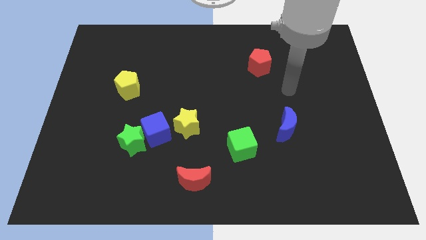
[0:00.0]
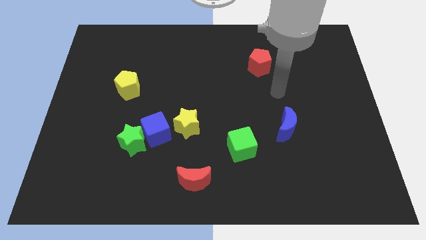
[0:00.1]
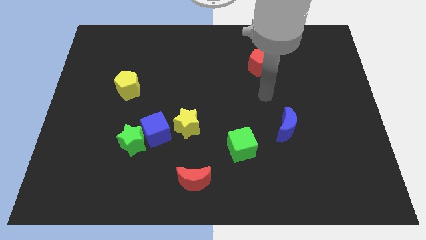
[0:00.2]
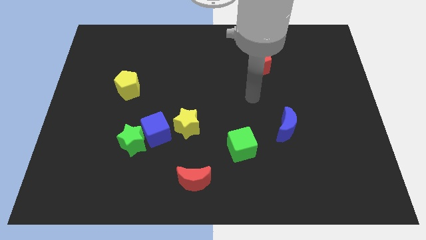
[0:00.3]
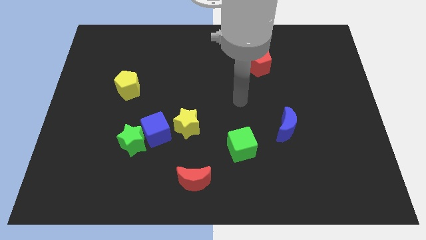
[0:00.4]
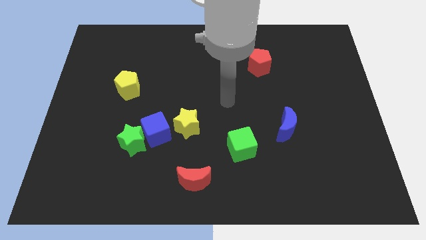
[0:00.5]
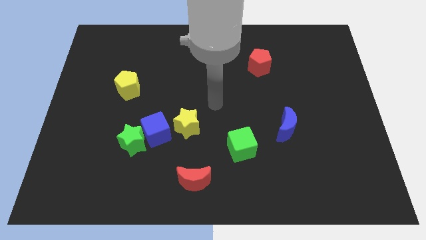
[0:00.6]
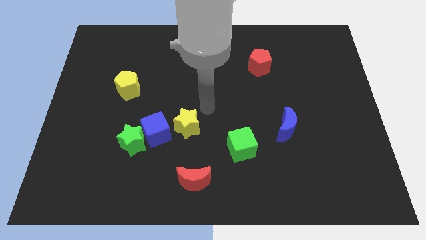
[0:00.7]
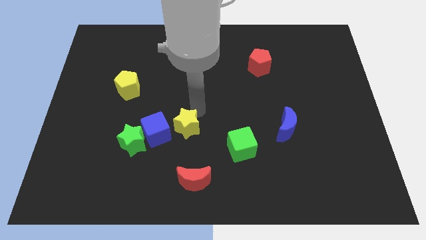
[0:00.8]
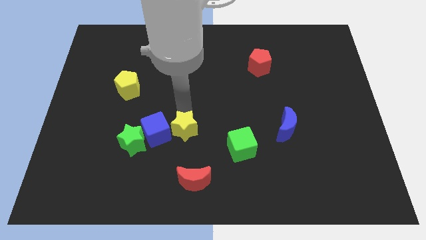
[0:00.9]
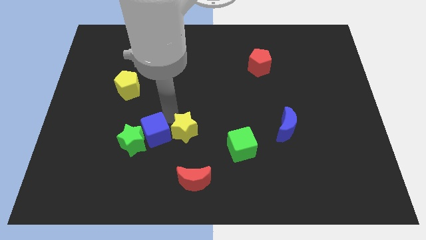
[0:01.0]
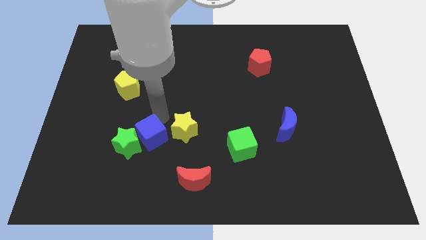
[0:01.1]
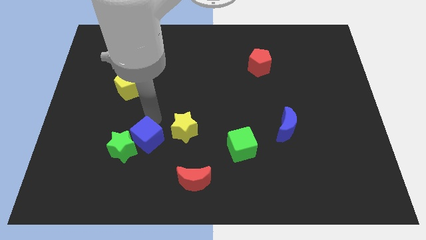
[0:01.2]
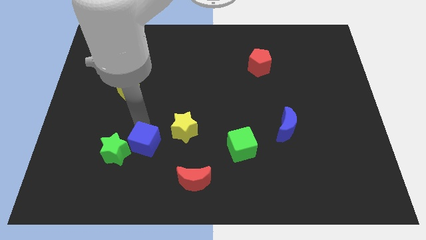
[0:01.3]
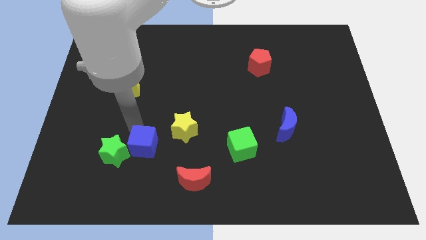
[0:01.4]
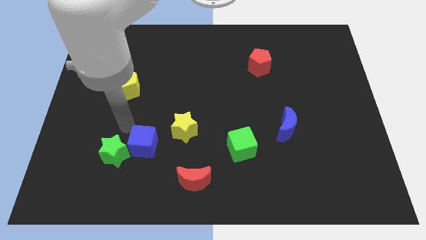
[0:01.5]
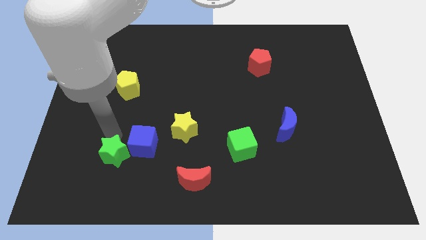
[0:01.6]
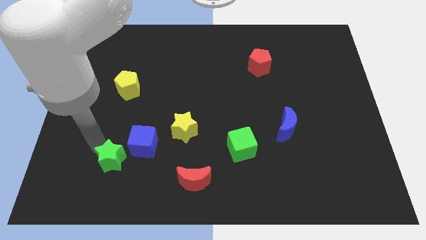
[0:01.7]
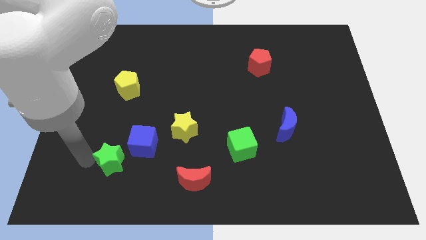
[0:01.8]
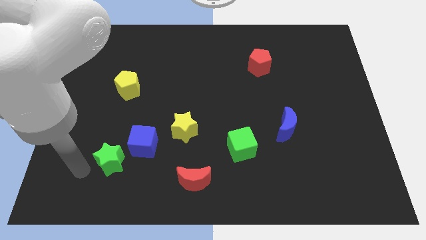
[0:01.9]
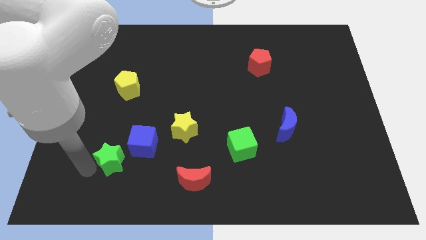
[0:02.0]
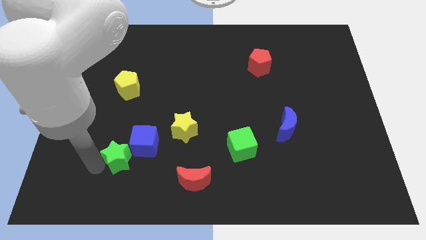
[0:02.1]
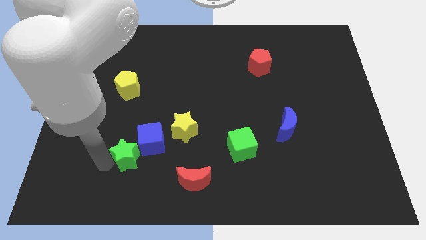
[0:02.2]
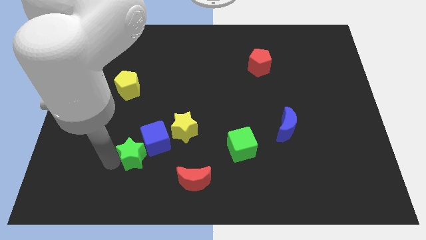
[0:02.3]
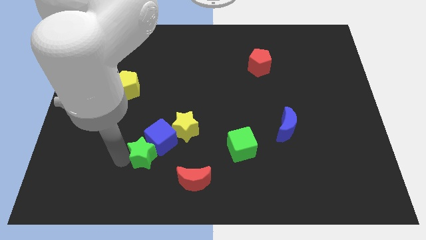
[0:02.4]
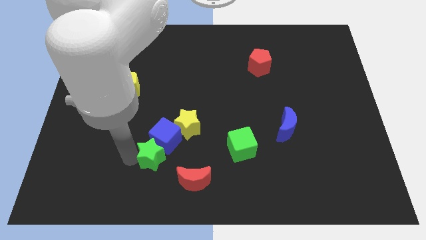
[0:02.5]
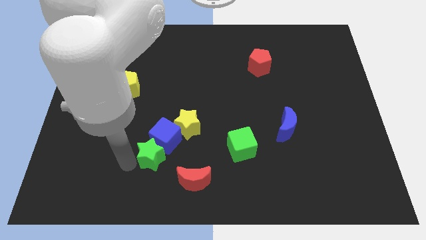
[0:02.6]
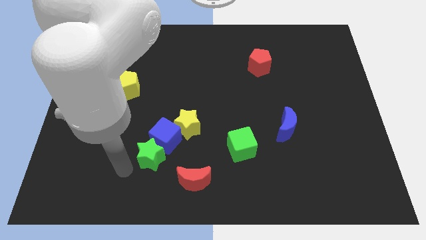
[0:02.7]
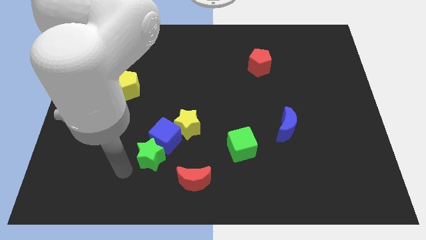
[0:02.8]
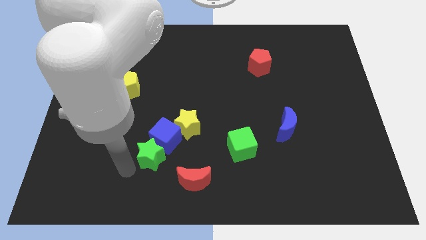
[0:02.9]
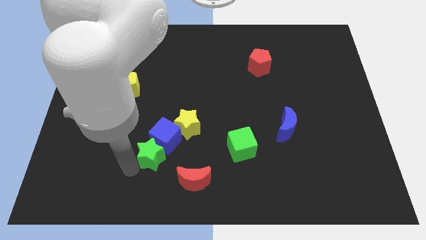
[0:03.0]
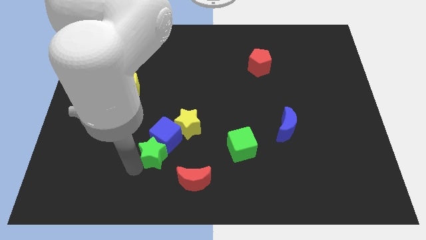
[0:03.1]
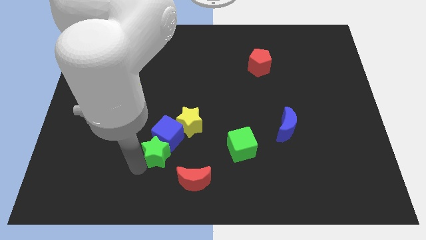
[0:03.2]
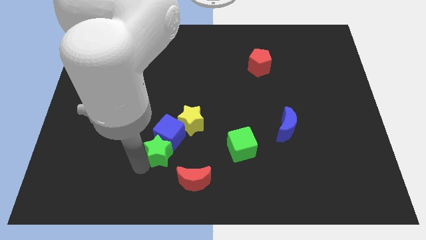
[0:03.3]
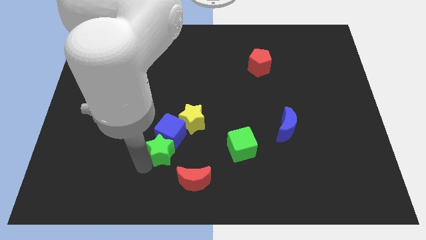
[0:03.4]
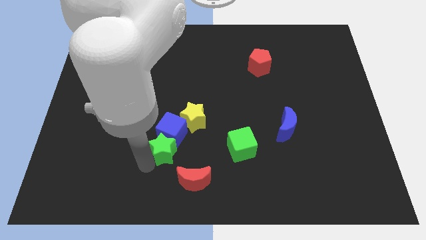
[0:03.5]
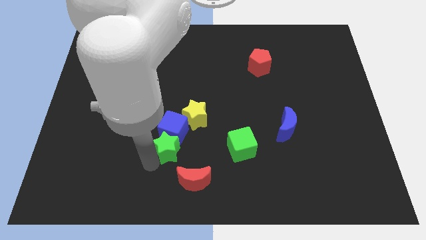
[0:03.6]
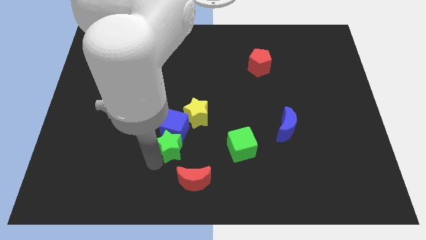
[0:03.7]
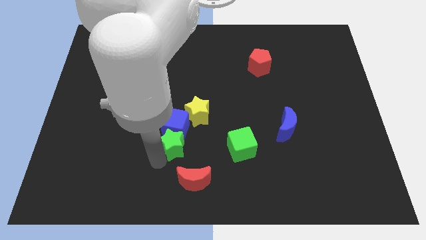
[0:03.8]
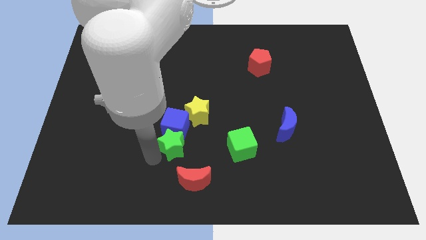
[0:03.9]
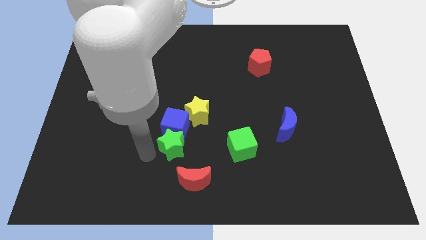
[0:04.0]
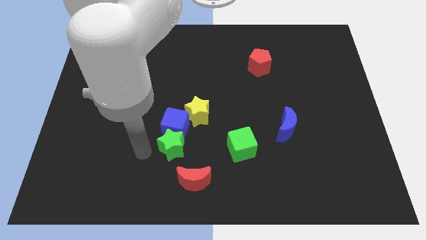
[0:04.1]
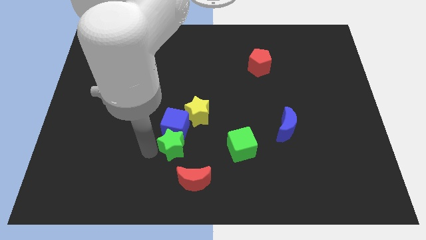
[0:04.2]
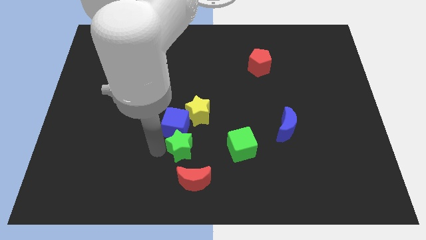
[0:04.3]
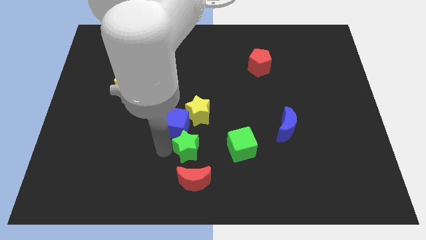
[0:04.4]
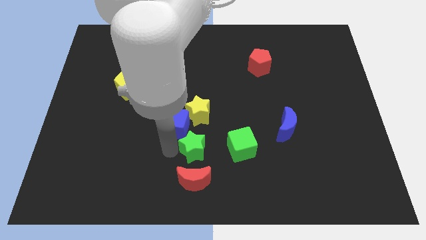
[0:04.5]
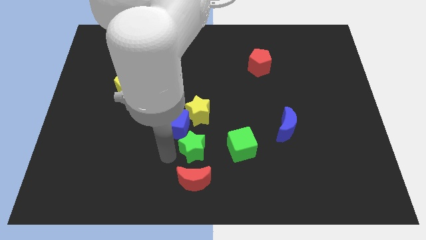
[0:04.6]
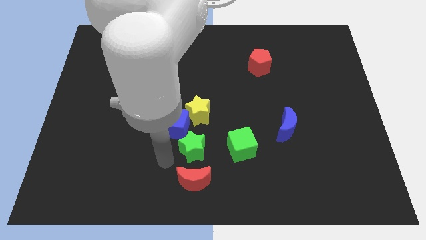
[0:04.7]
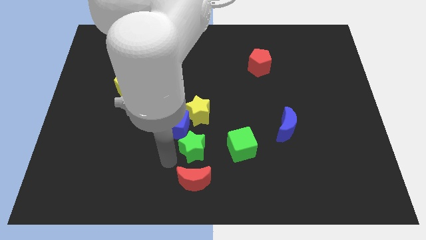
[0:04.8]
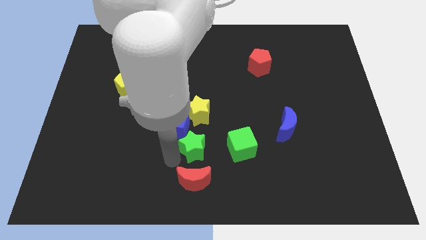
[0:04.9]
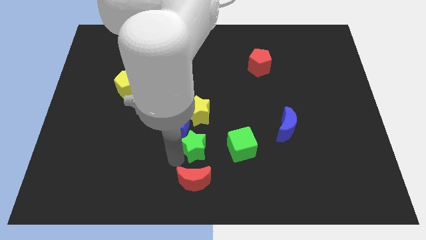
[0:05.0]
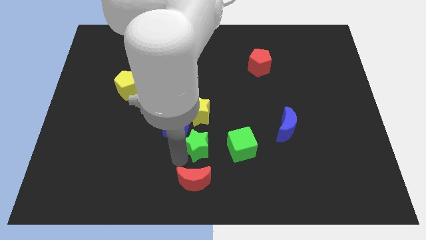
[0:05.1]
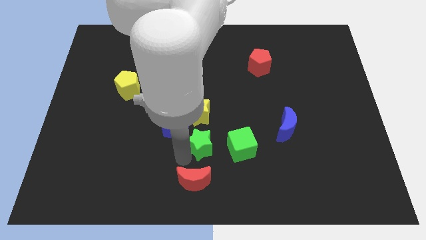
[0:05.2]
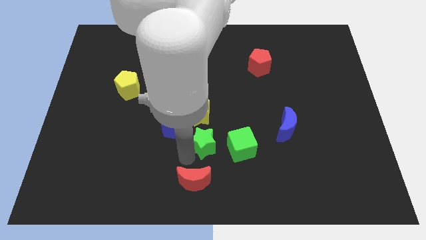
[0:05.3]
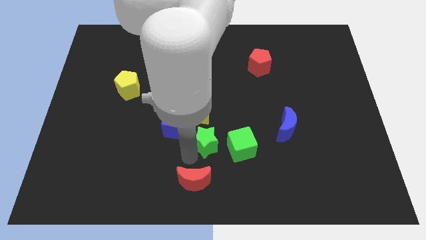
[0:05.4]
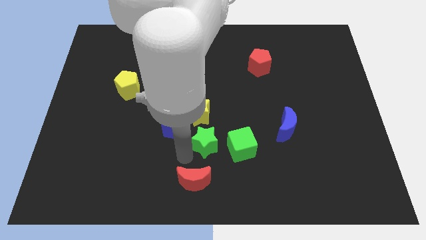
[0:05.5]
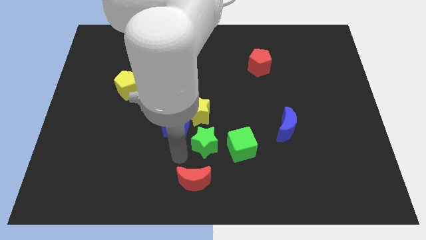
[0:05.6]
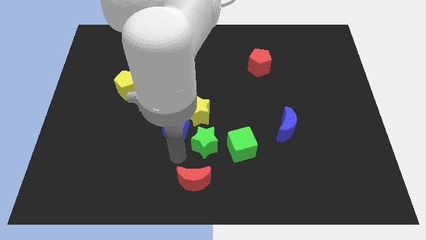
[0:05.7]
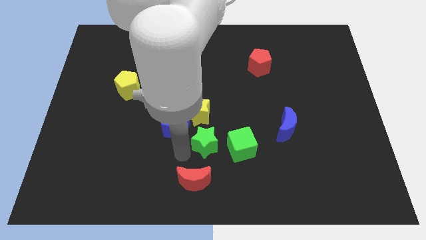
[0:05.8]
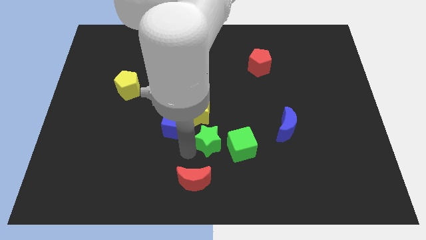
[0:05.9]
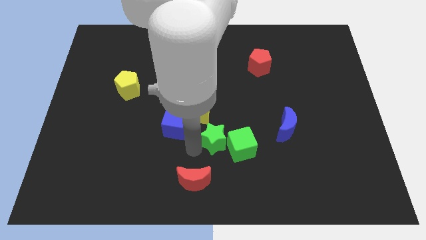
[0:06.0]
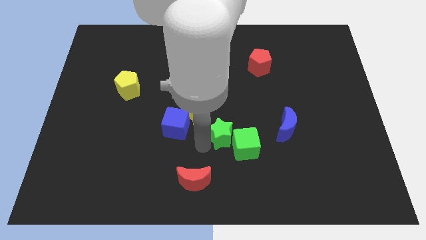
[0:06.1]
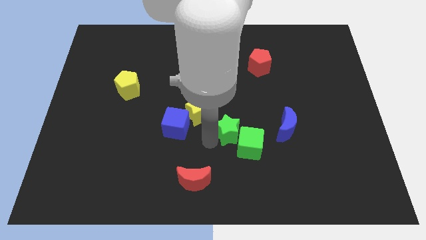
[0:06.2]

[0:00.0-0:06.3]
push the green star to the right

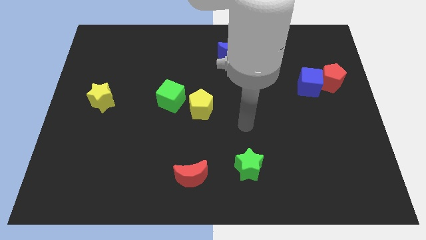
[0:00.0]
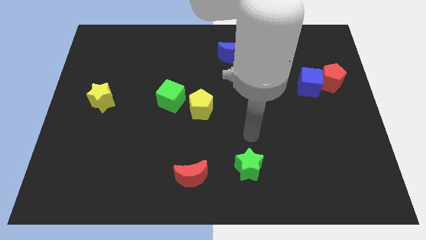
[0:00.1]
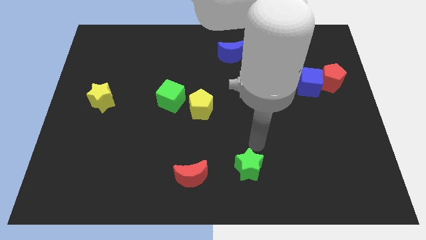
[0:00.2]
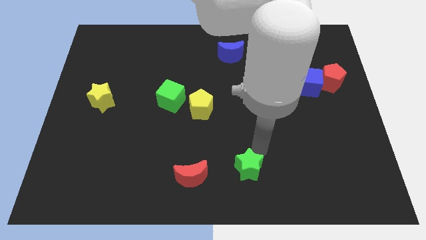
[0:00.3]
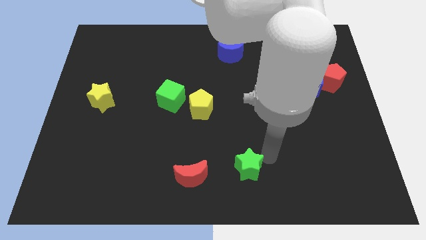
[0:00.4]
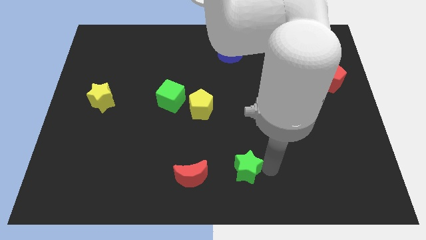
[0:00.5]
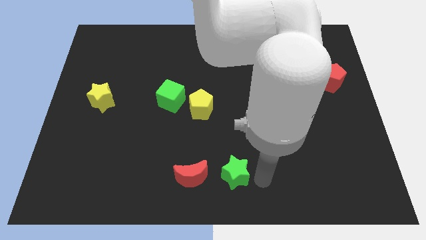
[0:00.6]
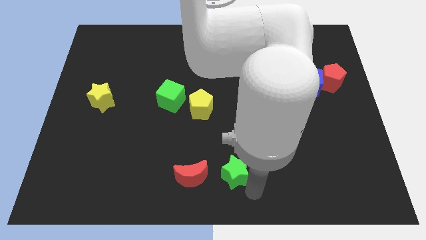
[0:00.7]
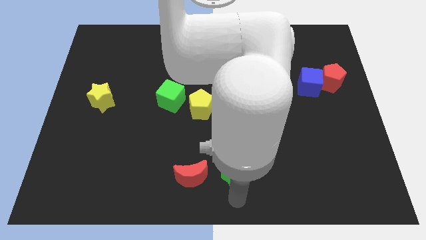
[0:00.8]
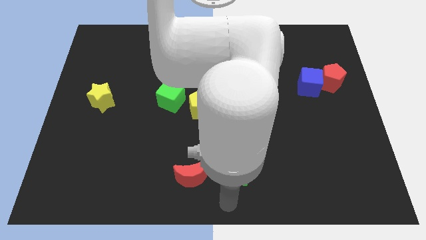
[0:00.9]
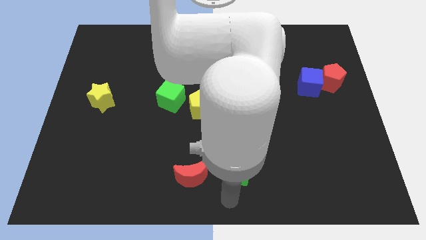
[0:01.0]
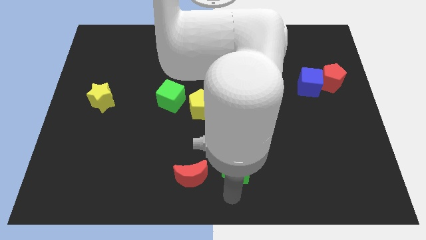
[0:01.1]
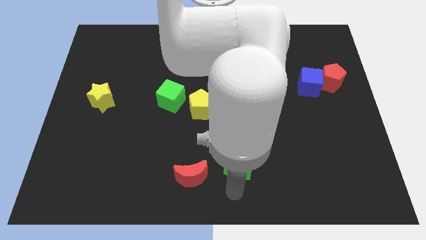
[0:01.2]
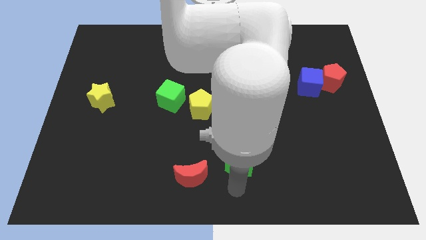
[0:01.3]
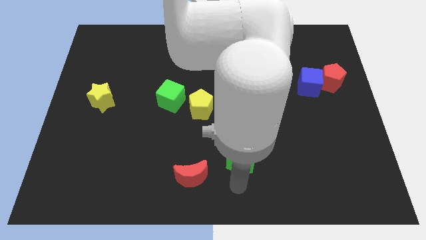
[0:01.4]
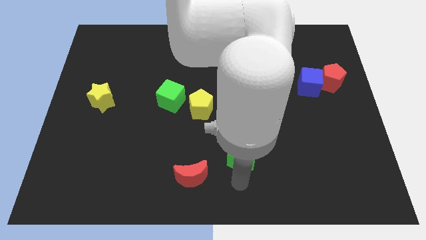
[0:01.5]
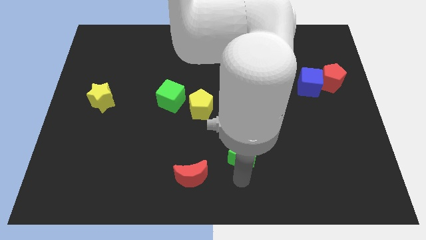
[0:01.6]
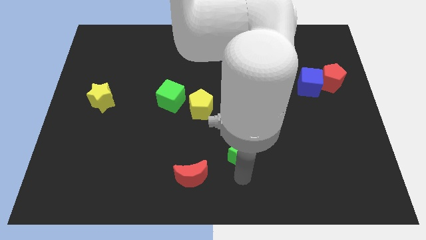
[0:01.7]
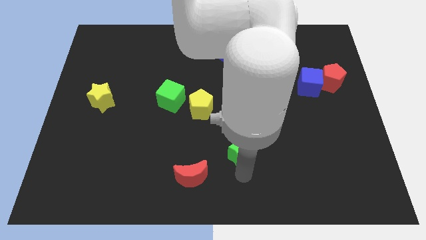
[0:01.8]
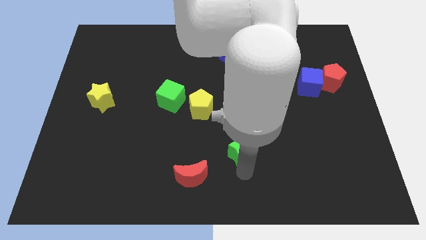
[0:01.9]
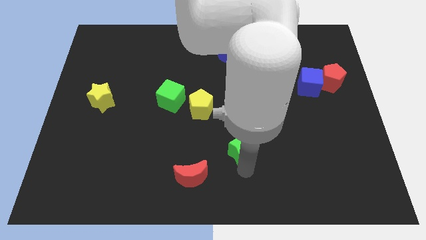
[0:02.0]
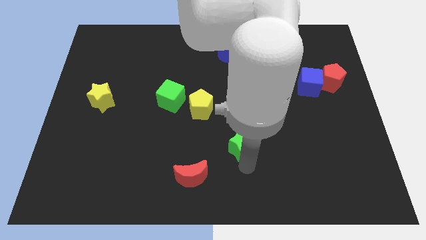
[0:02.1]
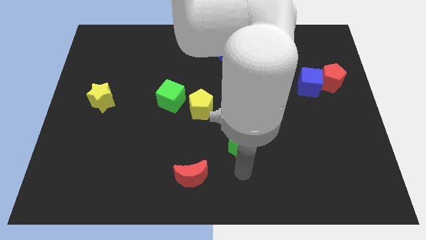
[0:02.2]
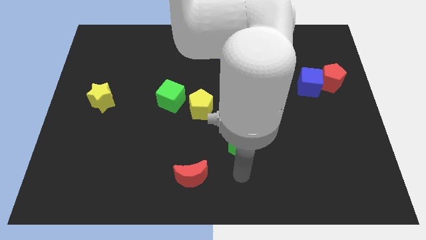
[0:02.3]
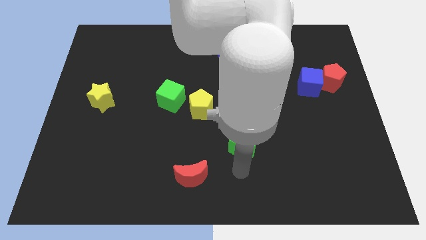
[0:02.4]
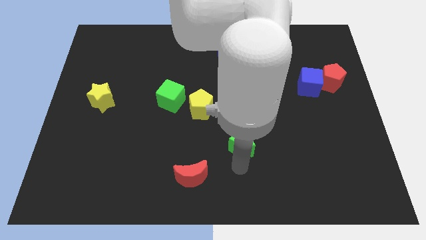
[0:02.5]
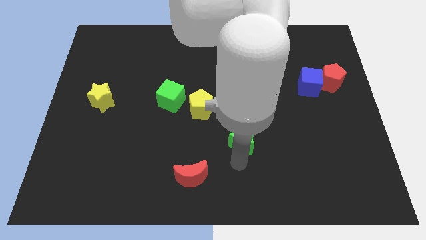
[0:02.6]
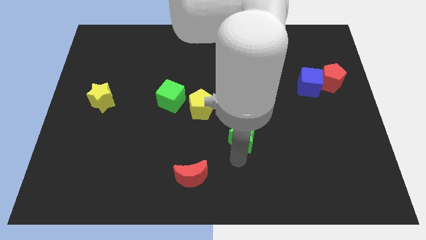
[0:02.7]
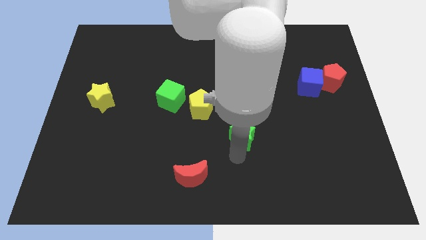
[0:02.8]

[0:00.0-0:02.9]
move the green star a little upwards
